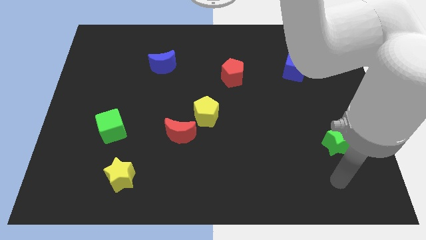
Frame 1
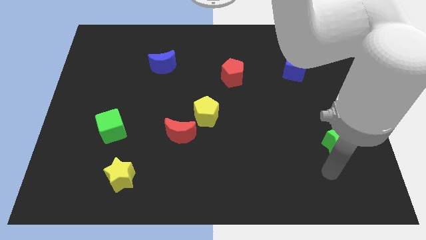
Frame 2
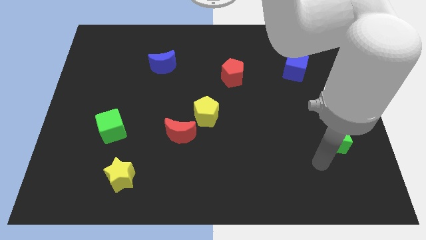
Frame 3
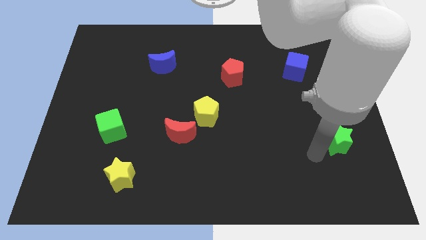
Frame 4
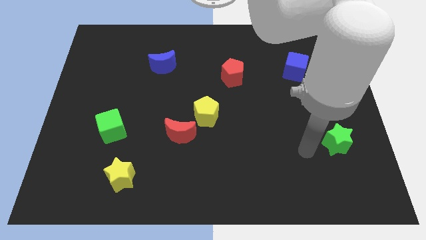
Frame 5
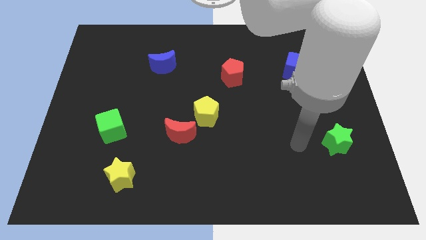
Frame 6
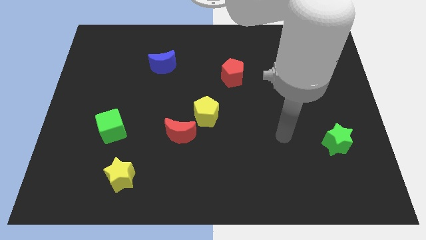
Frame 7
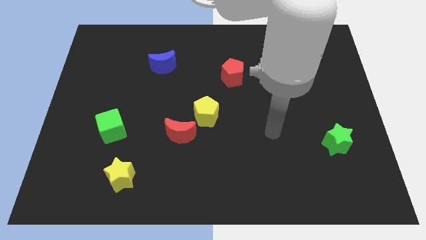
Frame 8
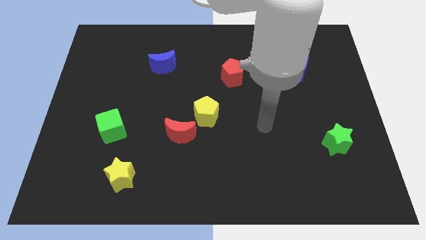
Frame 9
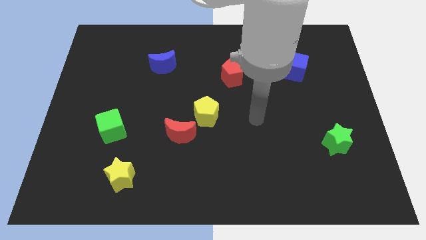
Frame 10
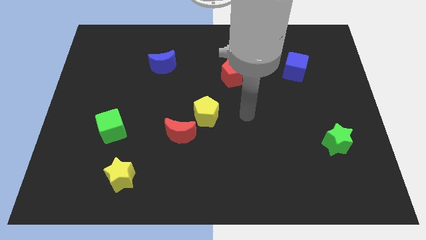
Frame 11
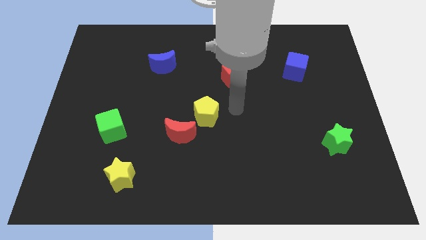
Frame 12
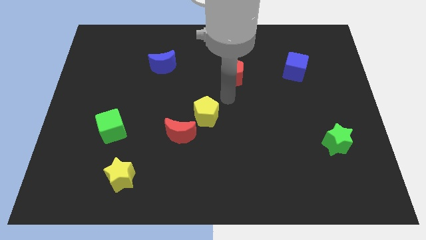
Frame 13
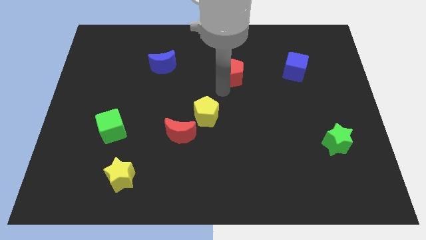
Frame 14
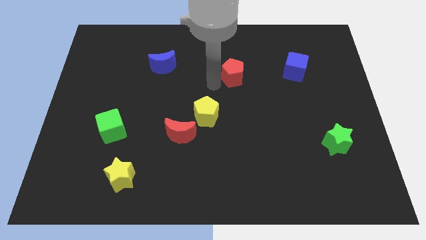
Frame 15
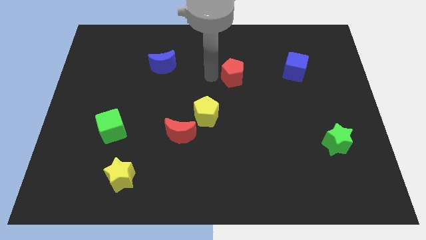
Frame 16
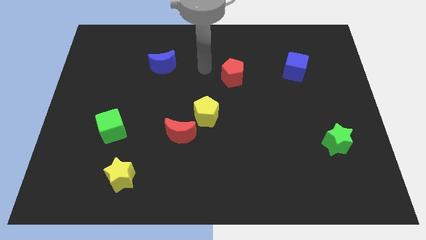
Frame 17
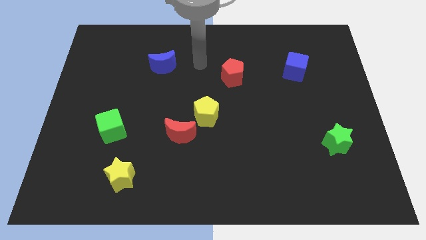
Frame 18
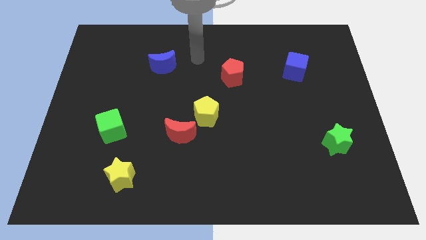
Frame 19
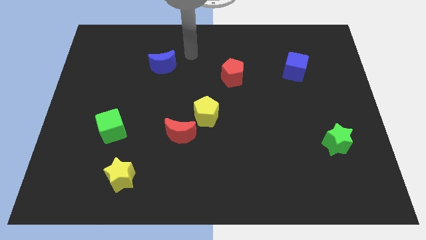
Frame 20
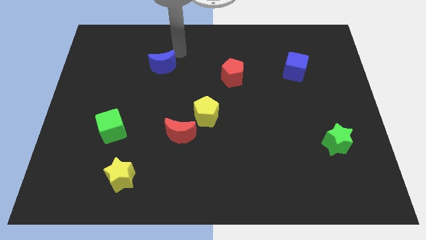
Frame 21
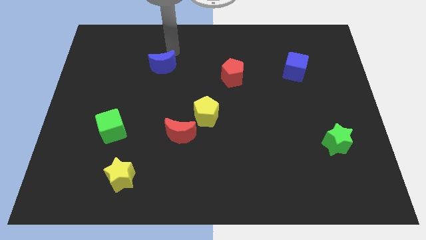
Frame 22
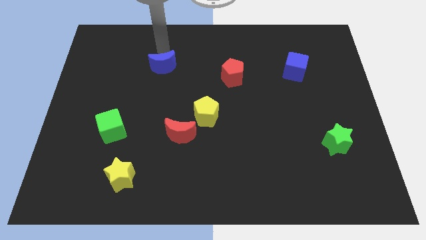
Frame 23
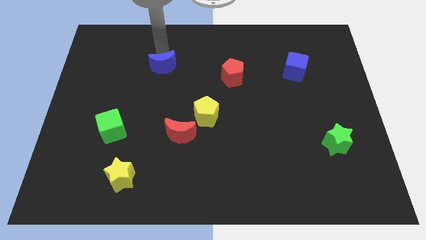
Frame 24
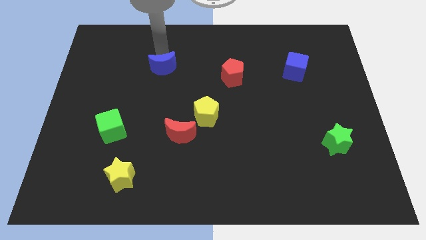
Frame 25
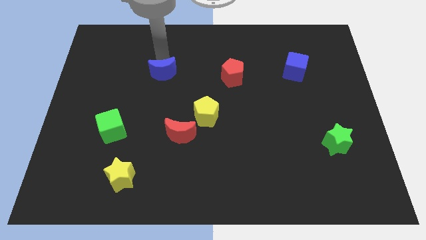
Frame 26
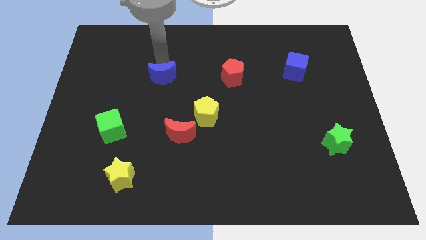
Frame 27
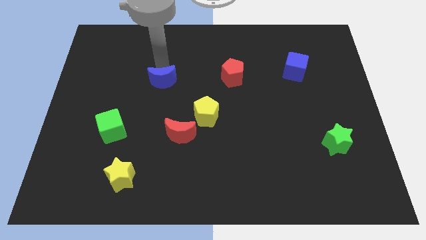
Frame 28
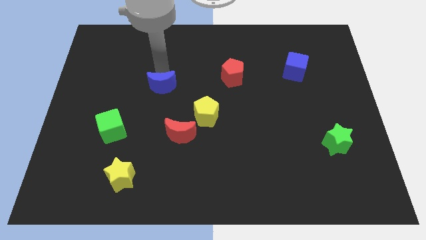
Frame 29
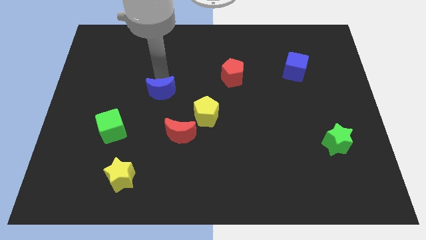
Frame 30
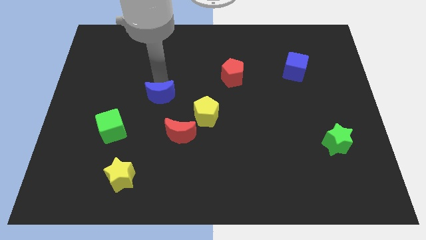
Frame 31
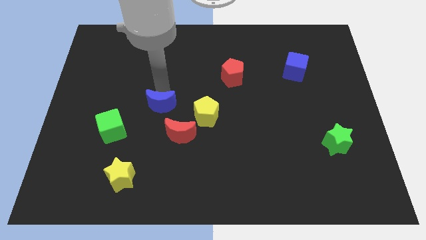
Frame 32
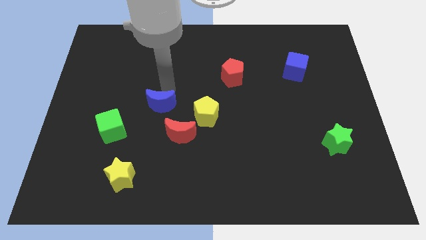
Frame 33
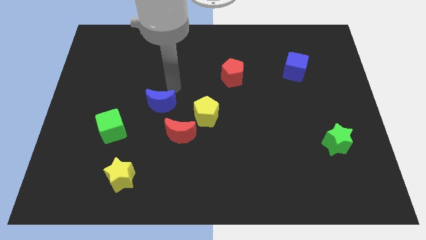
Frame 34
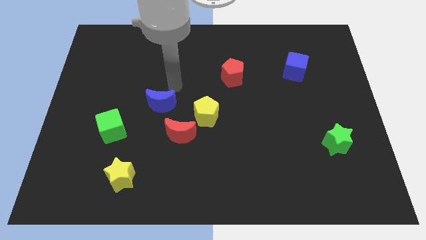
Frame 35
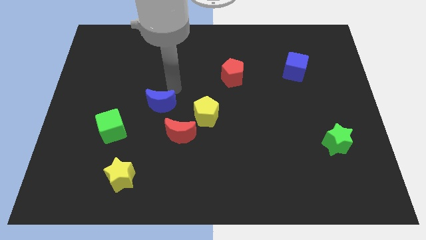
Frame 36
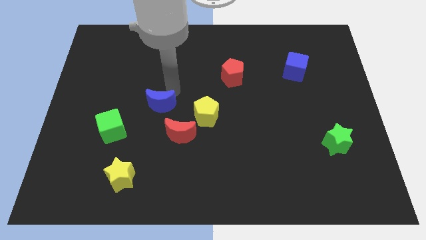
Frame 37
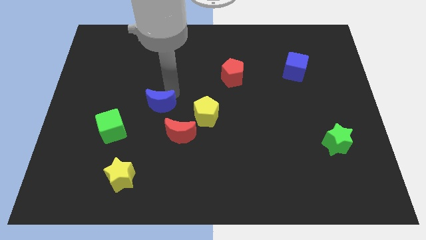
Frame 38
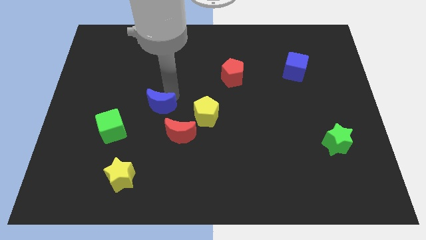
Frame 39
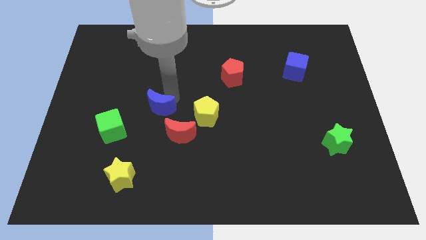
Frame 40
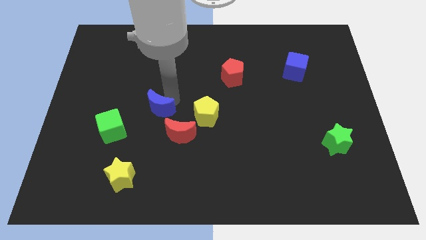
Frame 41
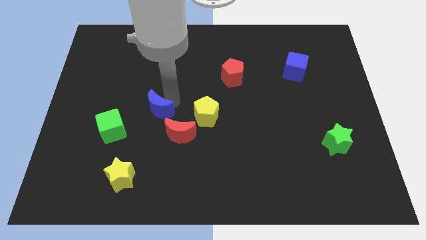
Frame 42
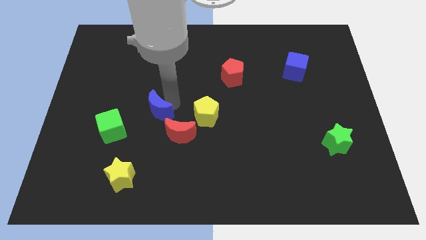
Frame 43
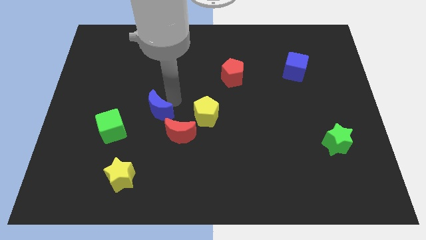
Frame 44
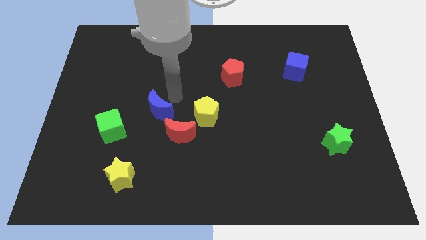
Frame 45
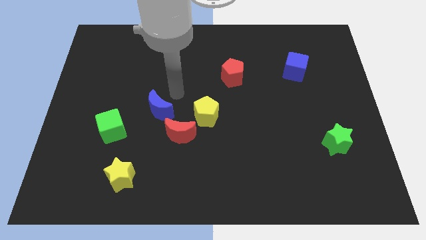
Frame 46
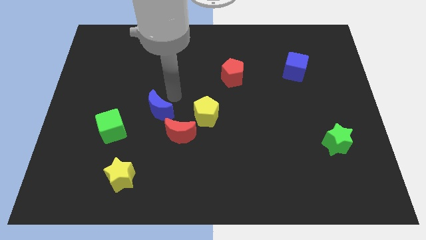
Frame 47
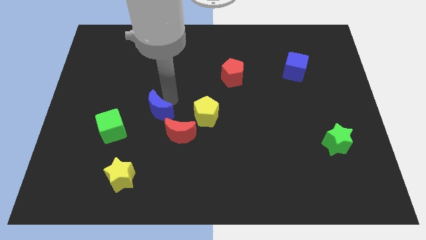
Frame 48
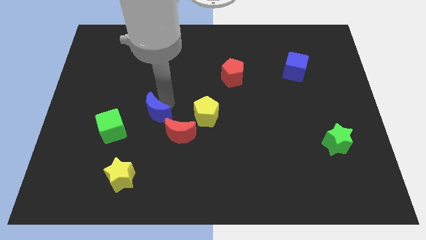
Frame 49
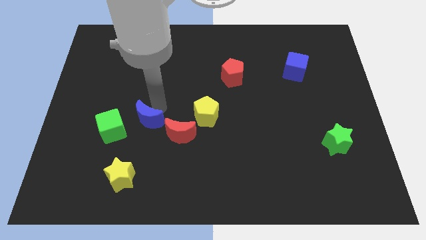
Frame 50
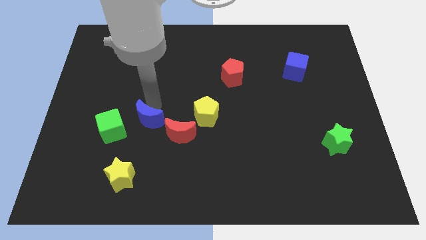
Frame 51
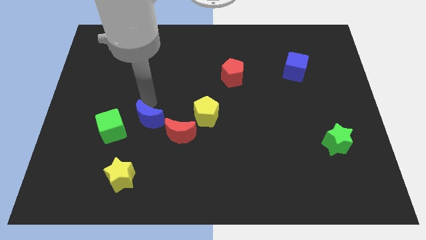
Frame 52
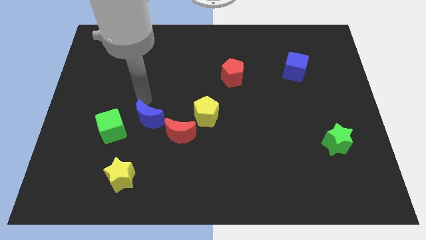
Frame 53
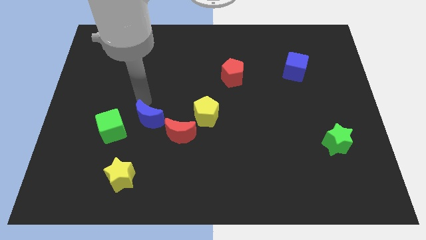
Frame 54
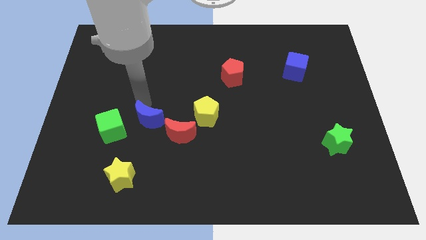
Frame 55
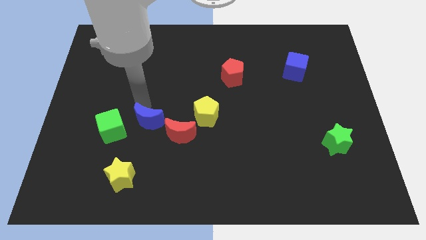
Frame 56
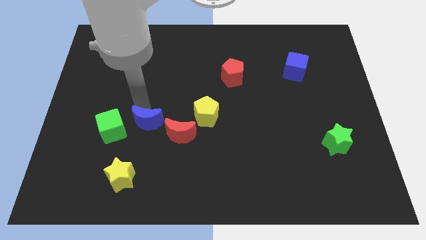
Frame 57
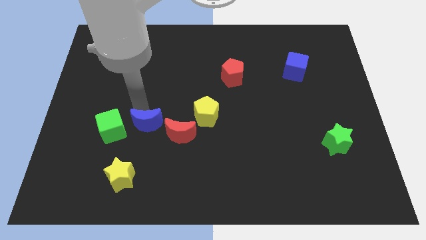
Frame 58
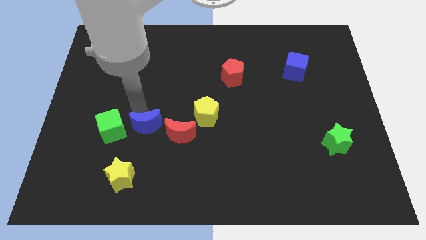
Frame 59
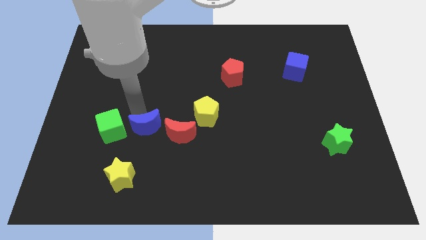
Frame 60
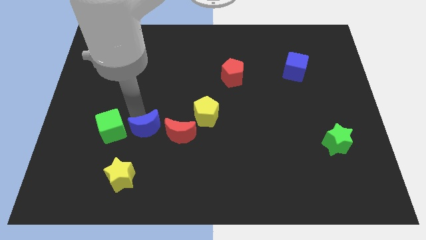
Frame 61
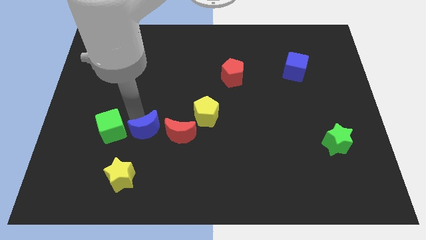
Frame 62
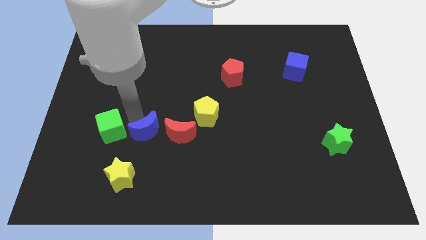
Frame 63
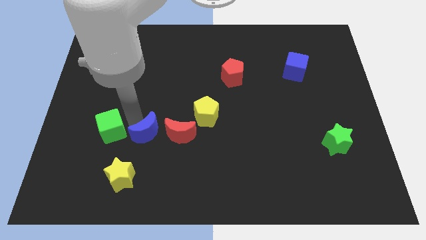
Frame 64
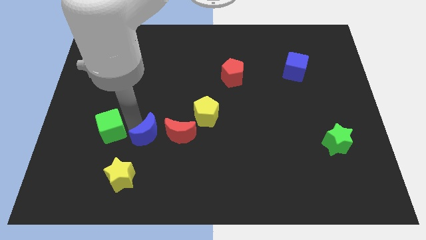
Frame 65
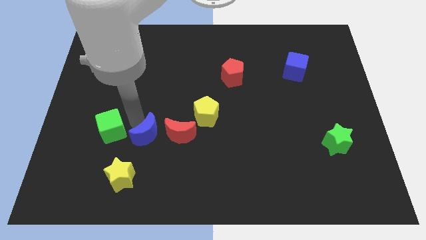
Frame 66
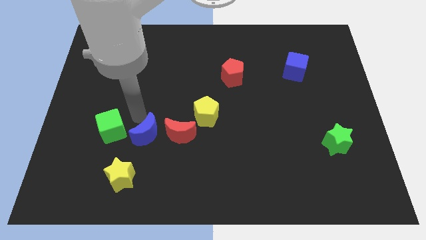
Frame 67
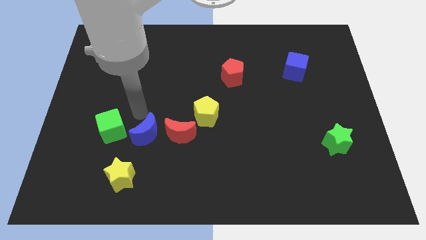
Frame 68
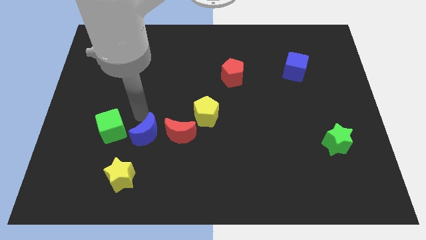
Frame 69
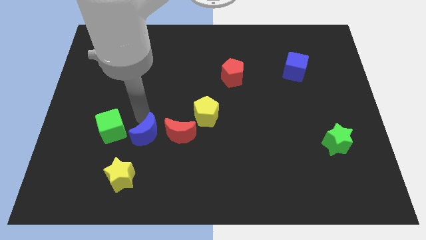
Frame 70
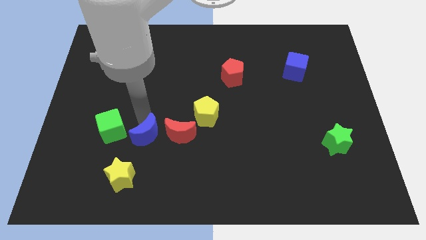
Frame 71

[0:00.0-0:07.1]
move the blue moon diagonally down and to the left of the red moon

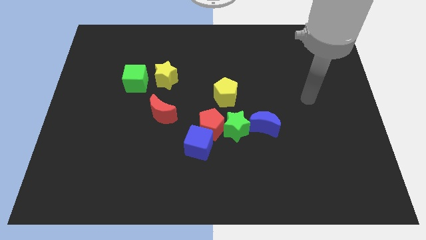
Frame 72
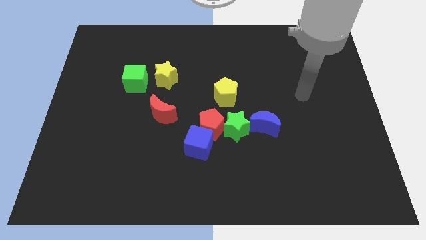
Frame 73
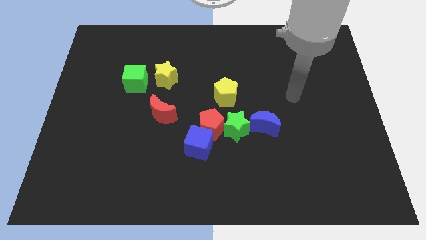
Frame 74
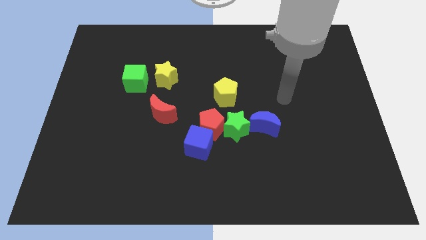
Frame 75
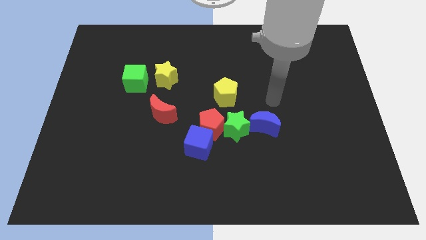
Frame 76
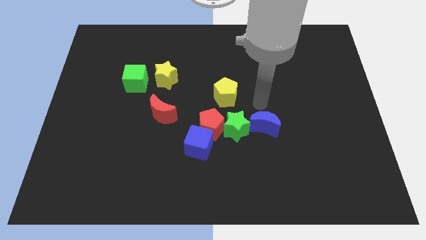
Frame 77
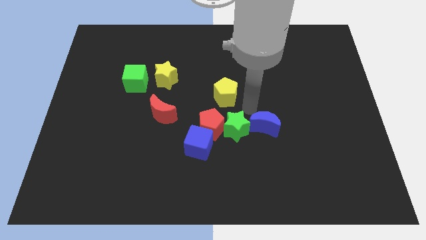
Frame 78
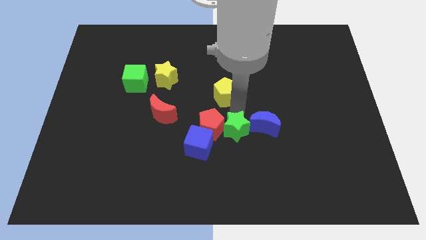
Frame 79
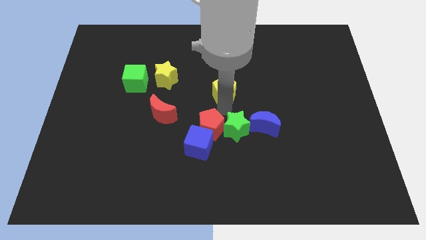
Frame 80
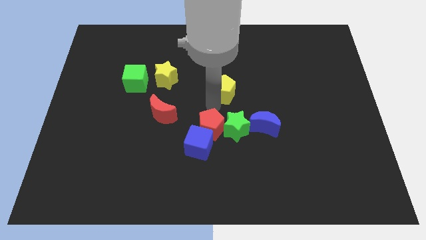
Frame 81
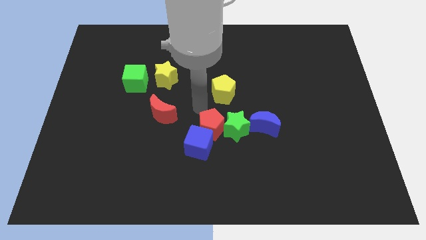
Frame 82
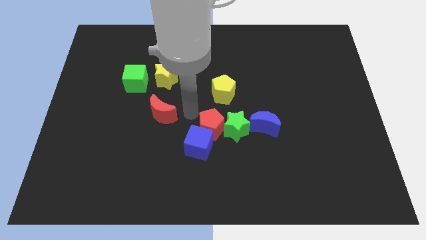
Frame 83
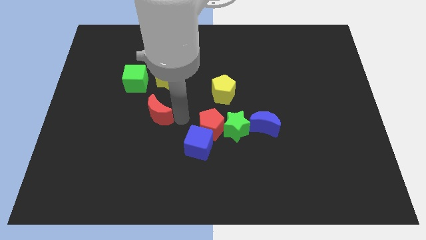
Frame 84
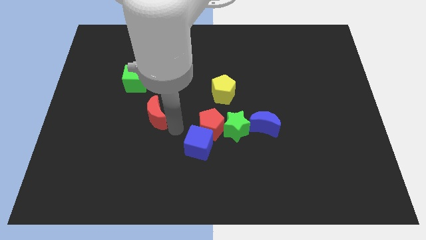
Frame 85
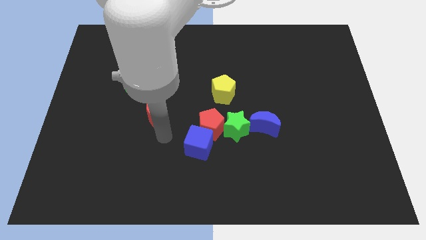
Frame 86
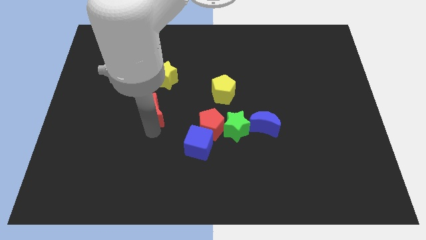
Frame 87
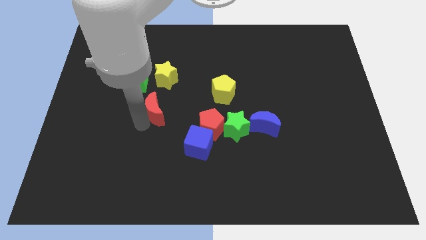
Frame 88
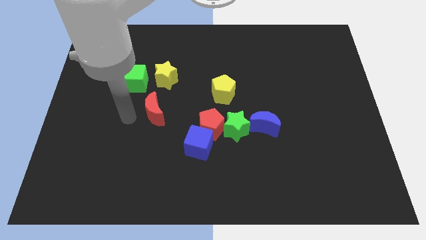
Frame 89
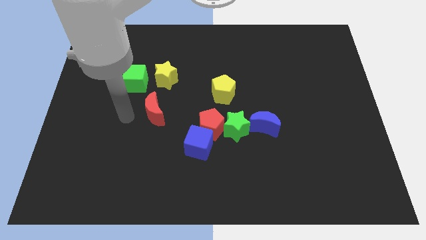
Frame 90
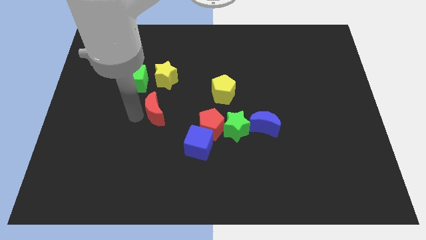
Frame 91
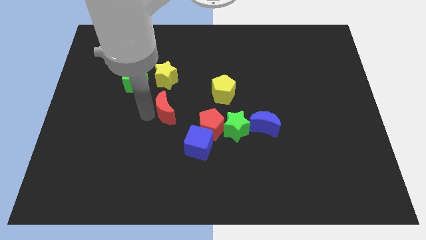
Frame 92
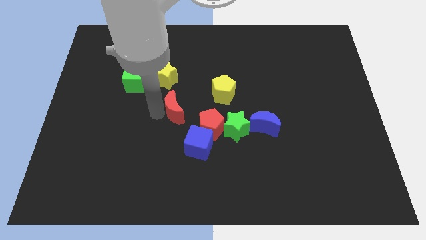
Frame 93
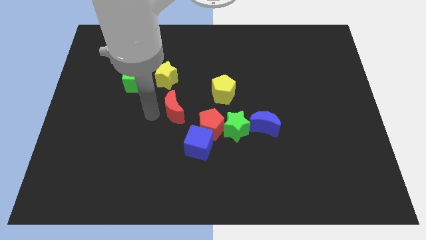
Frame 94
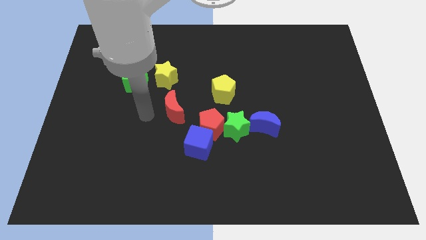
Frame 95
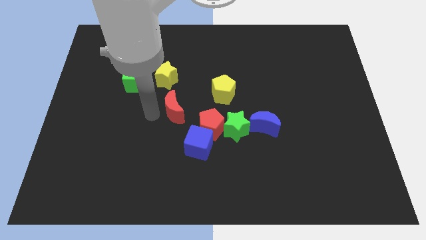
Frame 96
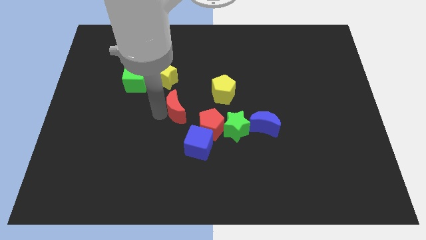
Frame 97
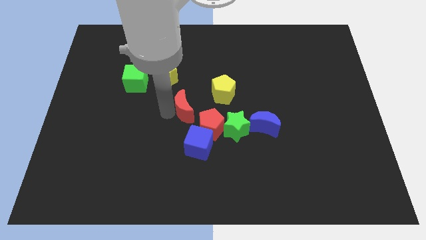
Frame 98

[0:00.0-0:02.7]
move the red moon to the top of the blue cube
